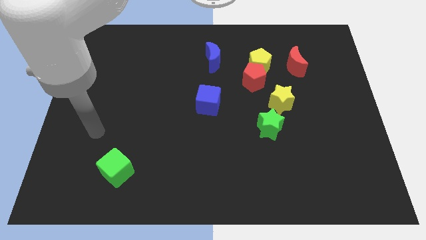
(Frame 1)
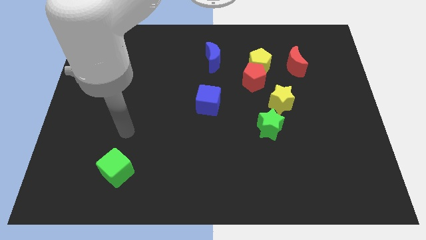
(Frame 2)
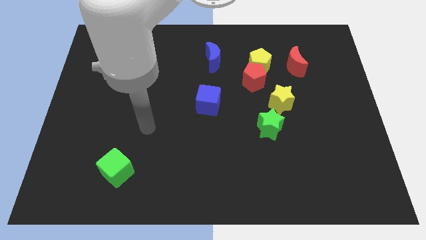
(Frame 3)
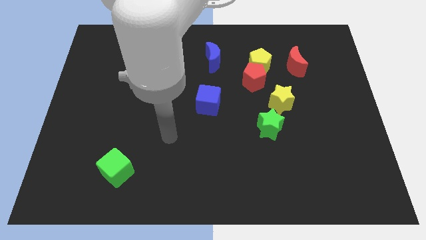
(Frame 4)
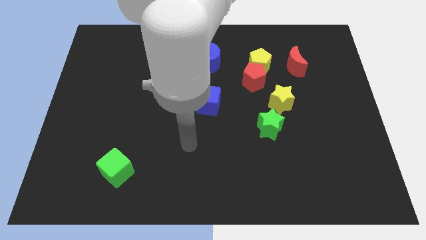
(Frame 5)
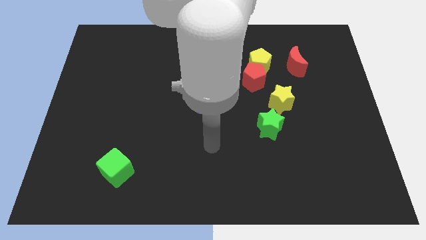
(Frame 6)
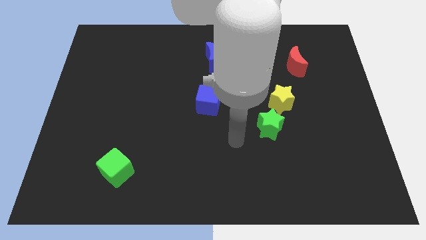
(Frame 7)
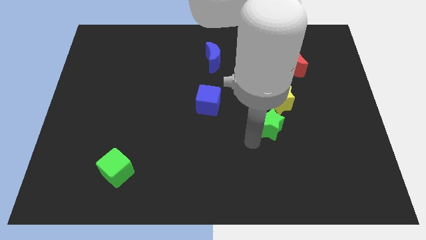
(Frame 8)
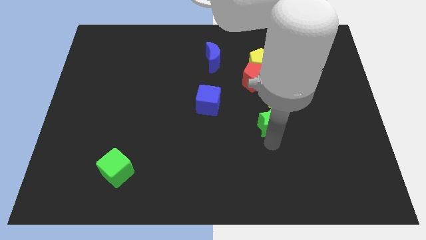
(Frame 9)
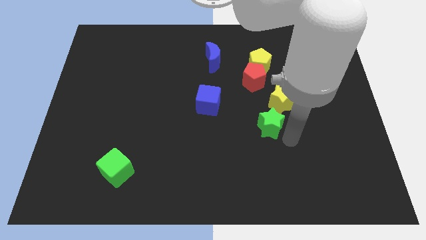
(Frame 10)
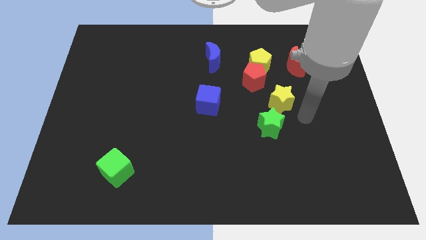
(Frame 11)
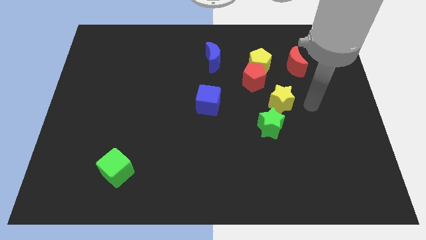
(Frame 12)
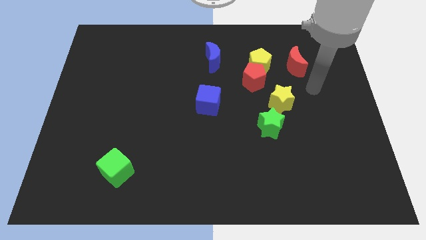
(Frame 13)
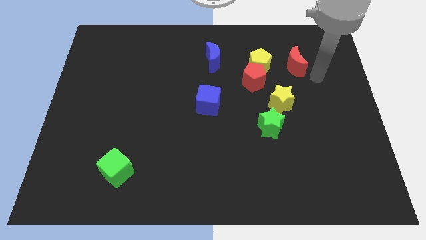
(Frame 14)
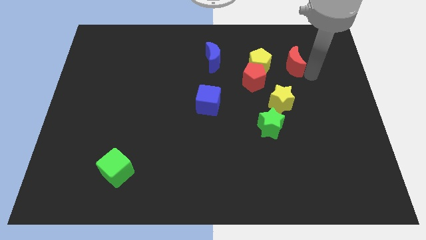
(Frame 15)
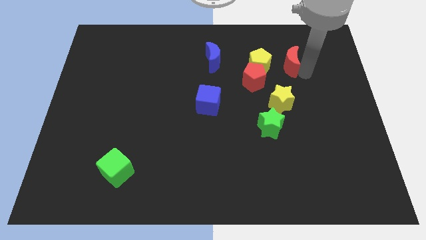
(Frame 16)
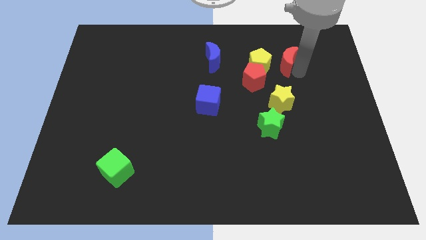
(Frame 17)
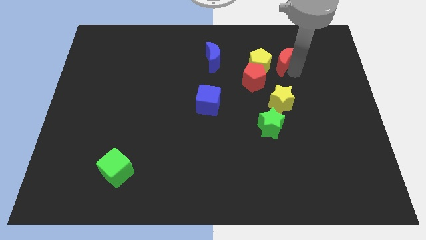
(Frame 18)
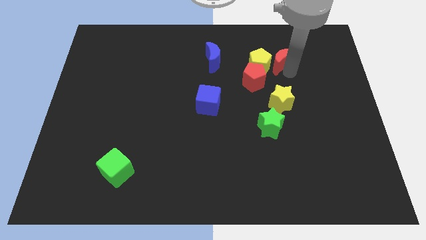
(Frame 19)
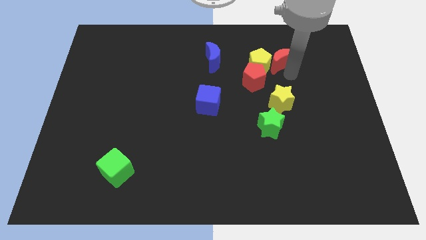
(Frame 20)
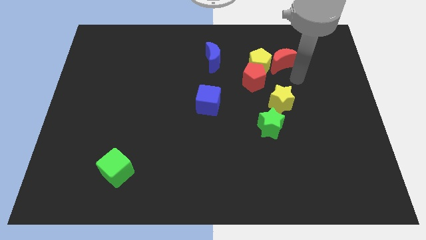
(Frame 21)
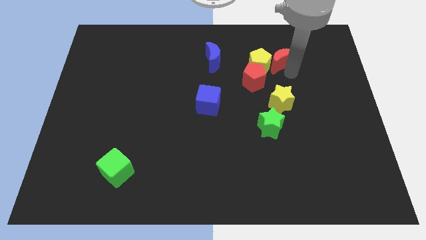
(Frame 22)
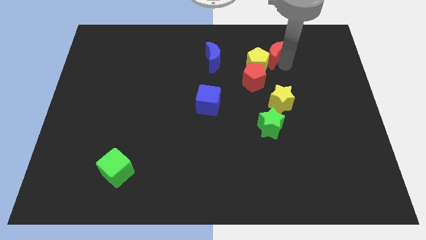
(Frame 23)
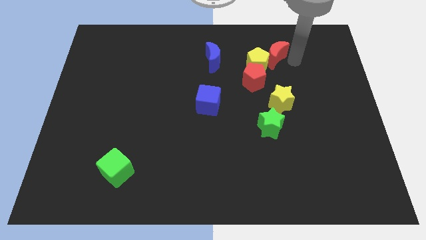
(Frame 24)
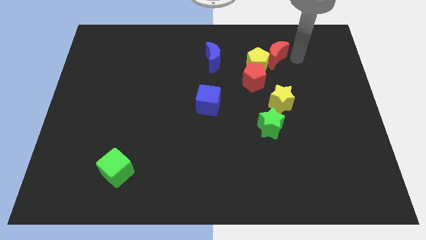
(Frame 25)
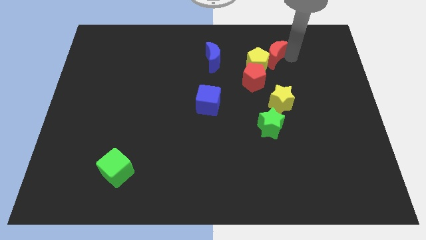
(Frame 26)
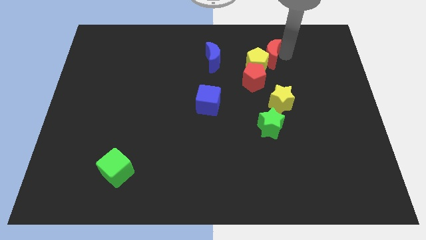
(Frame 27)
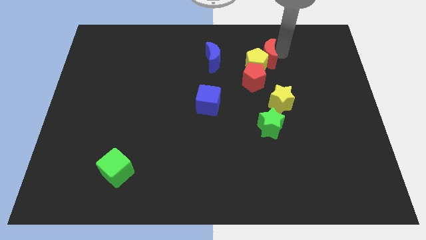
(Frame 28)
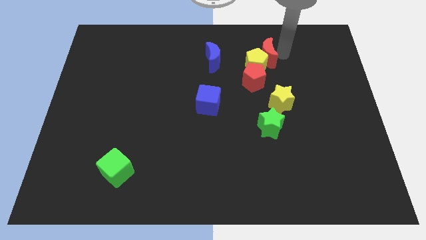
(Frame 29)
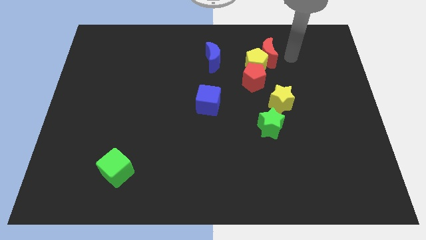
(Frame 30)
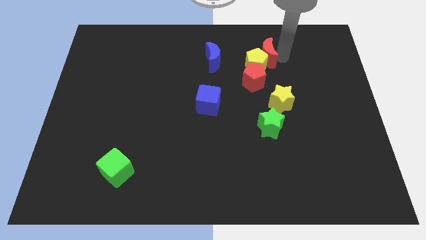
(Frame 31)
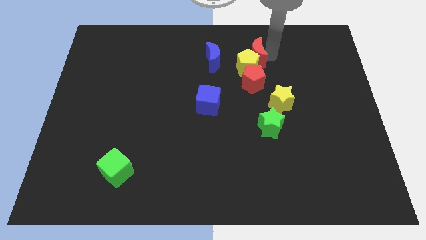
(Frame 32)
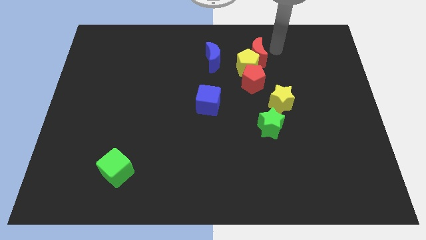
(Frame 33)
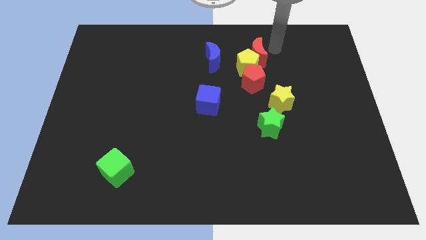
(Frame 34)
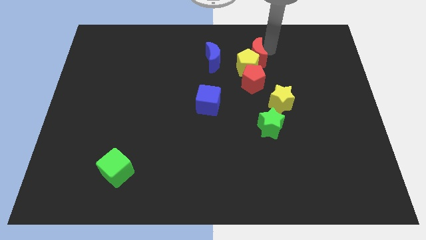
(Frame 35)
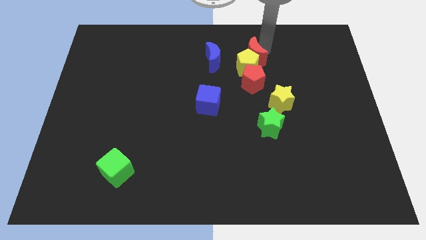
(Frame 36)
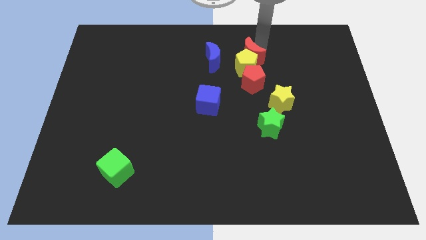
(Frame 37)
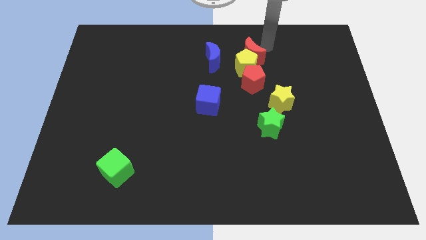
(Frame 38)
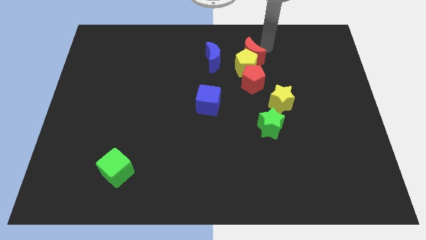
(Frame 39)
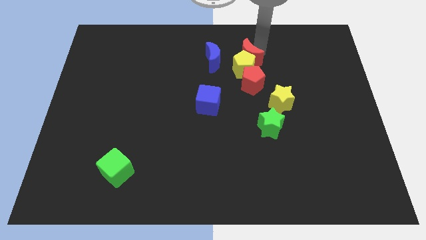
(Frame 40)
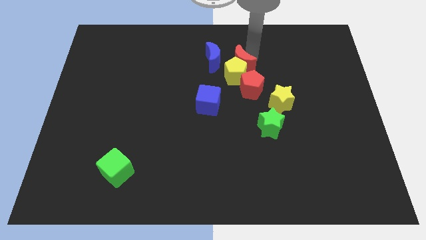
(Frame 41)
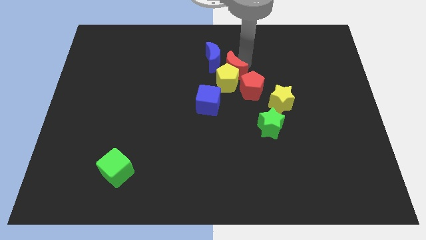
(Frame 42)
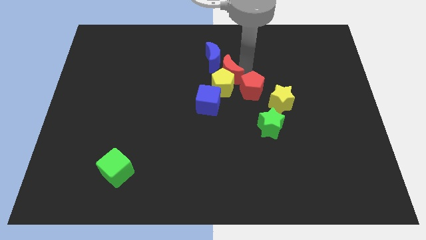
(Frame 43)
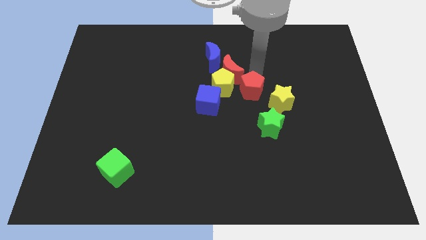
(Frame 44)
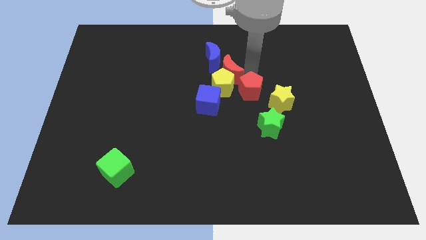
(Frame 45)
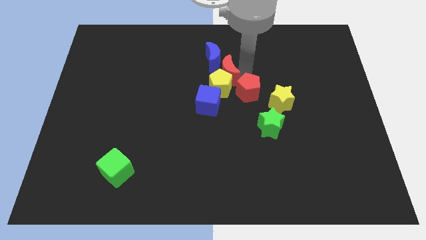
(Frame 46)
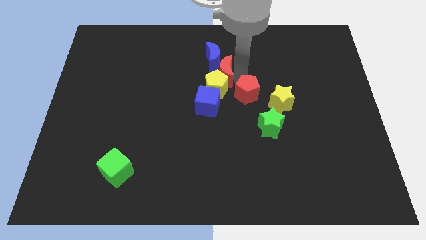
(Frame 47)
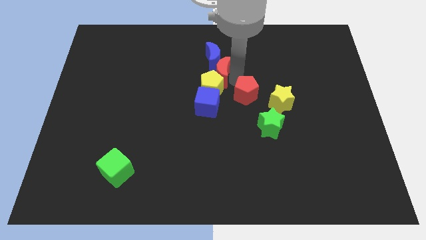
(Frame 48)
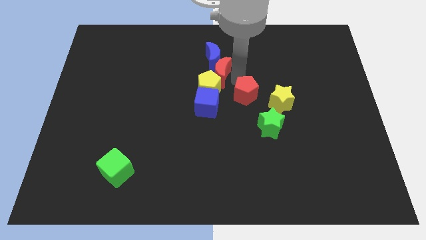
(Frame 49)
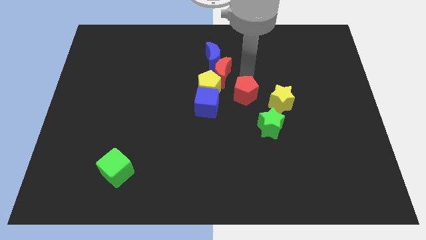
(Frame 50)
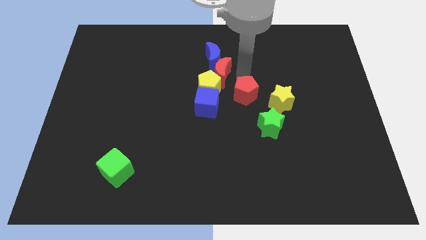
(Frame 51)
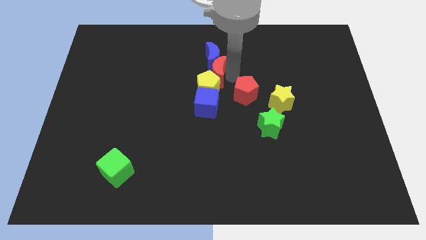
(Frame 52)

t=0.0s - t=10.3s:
put the red moon diagonally down and to the left of the blue moon

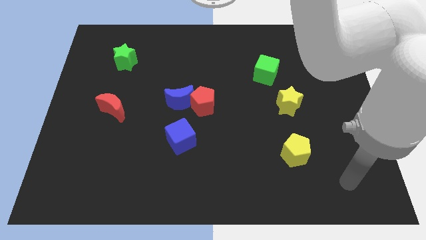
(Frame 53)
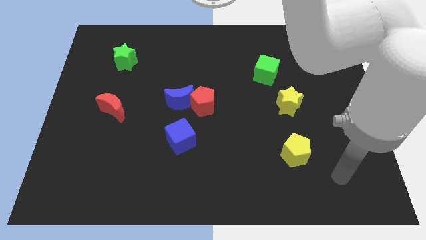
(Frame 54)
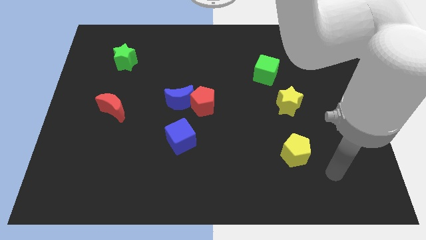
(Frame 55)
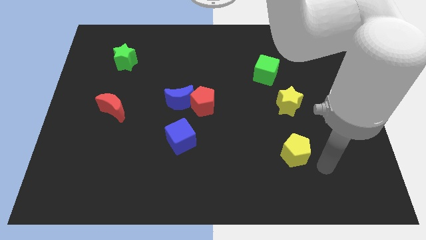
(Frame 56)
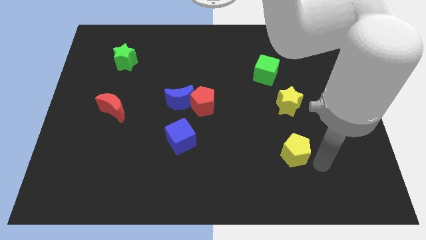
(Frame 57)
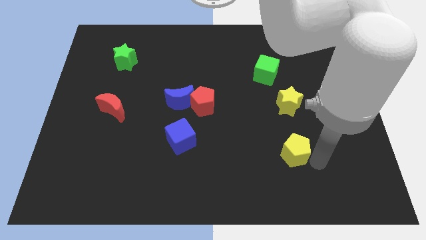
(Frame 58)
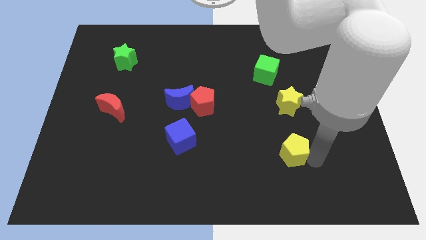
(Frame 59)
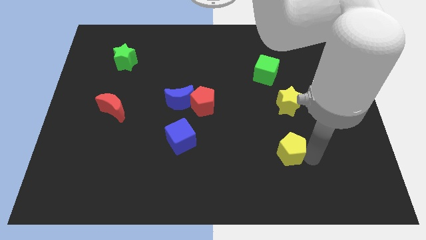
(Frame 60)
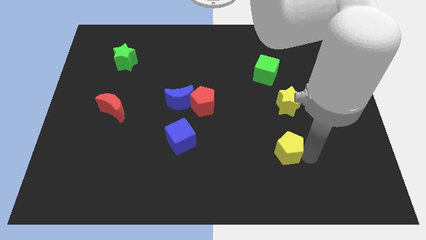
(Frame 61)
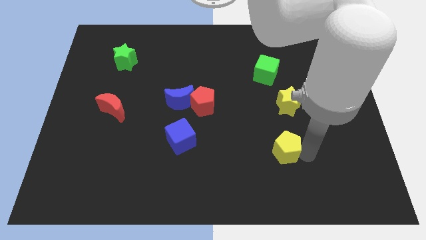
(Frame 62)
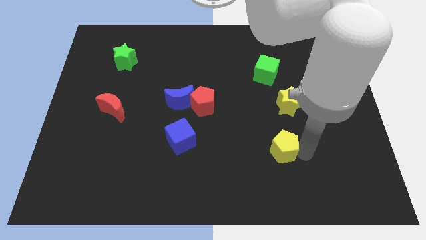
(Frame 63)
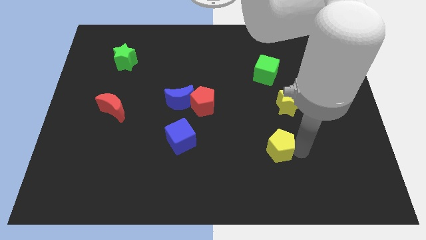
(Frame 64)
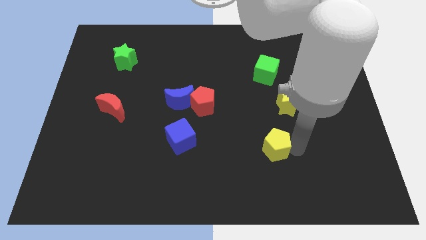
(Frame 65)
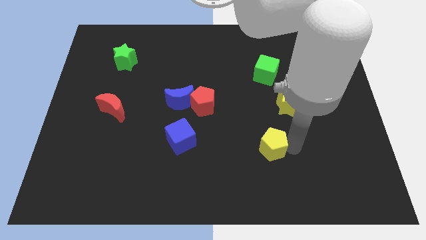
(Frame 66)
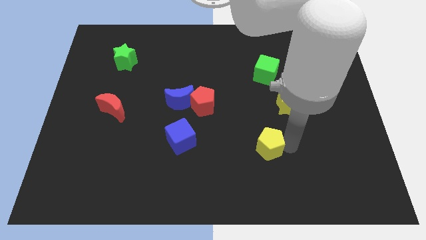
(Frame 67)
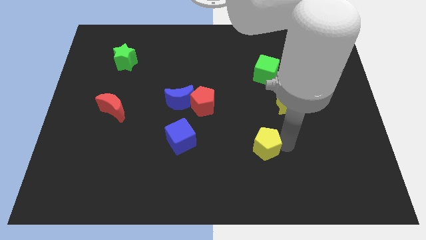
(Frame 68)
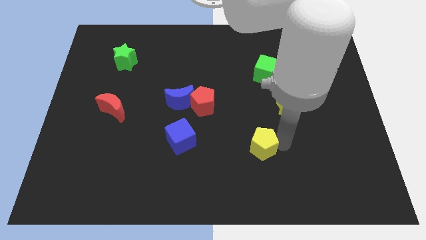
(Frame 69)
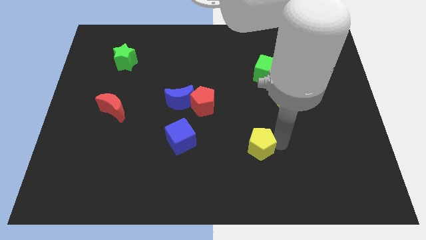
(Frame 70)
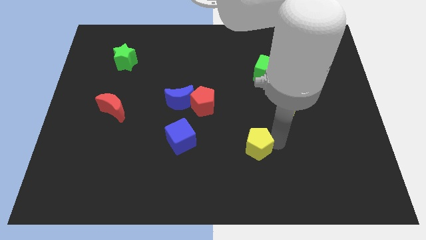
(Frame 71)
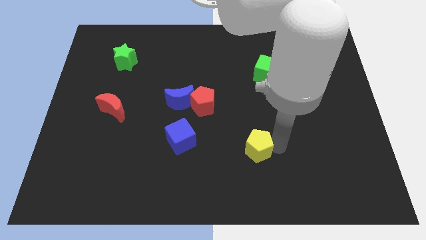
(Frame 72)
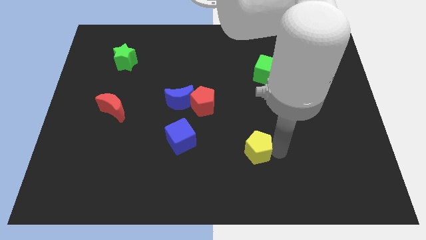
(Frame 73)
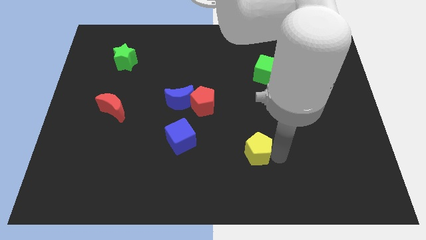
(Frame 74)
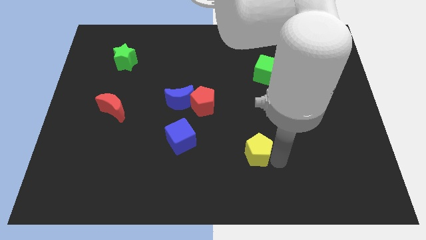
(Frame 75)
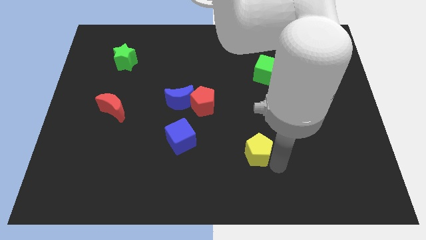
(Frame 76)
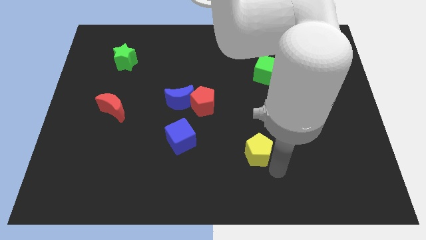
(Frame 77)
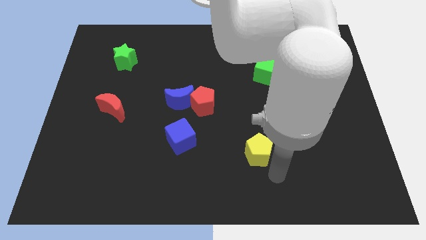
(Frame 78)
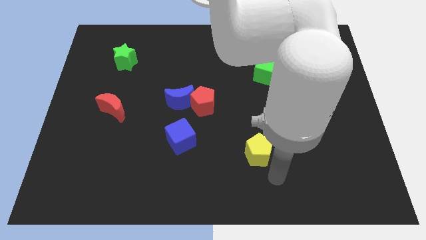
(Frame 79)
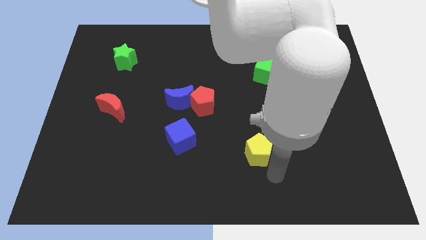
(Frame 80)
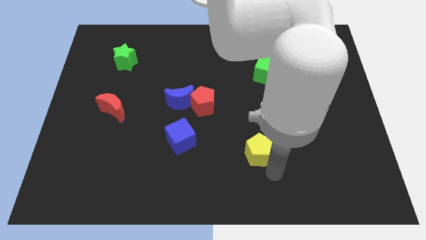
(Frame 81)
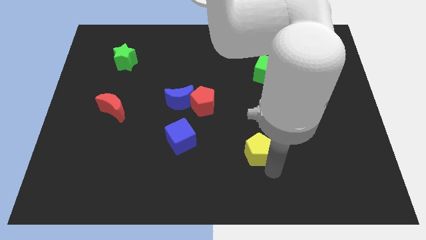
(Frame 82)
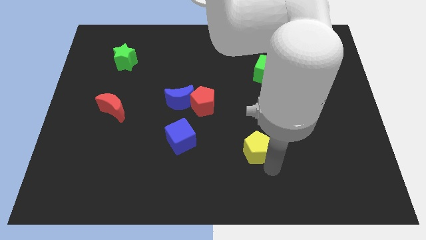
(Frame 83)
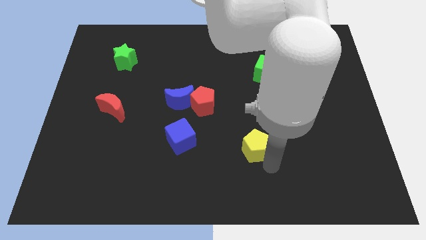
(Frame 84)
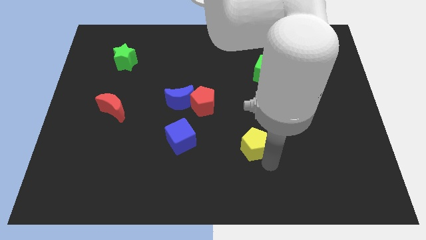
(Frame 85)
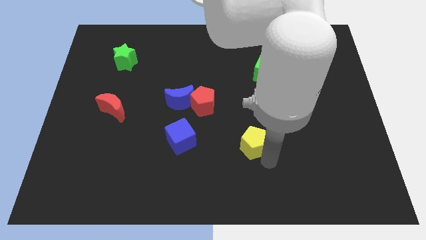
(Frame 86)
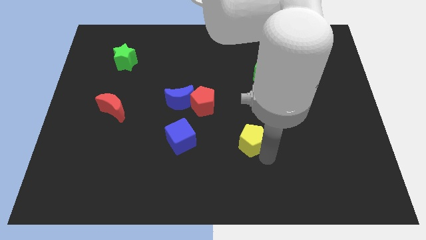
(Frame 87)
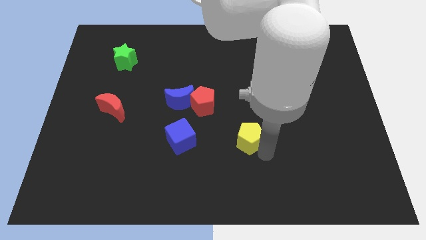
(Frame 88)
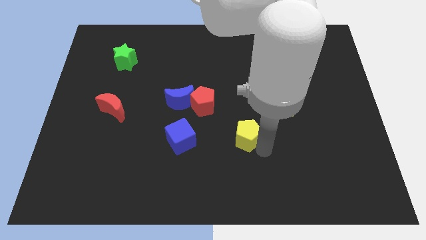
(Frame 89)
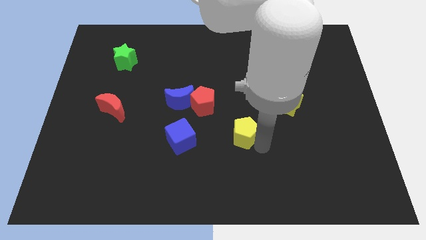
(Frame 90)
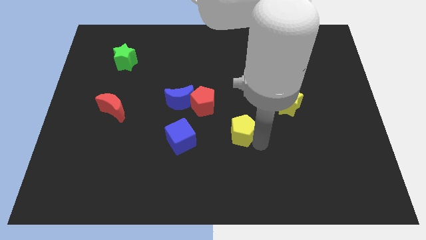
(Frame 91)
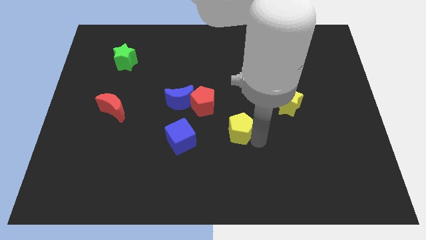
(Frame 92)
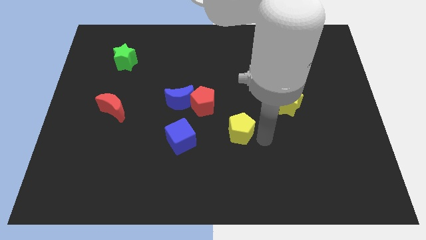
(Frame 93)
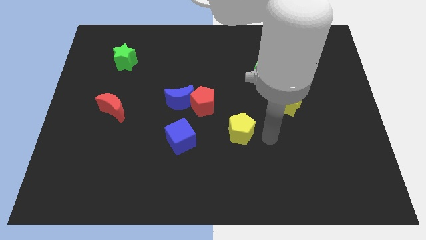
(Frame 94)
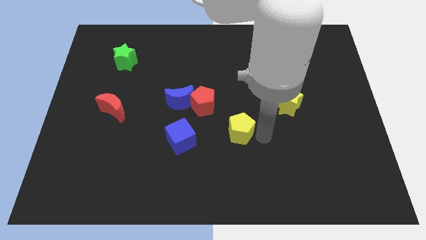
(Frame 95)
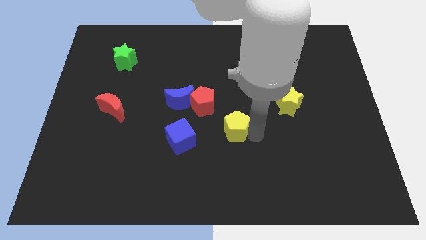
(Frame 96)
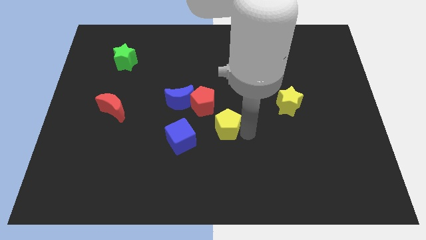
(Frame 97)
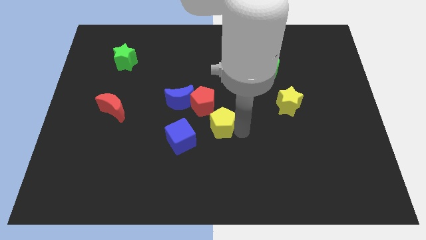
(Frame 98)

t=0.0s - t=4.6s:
push the yellow pentagon diagonally up and to the right of the blue cube
